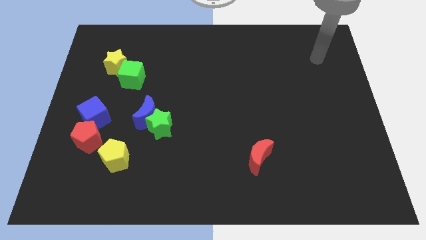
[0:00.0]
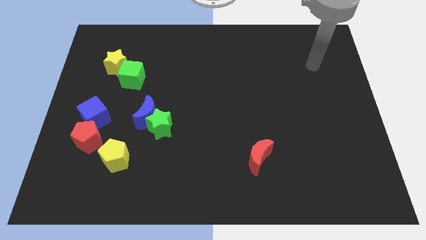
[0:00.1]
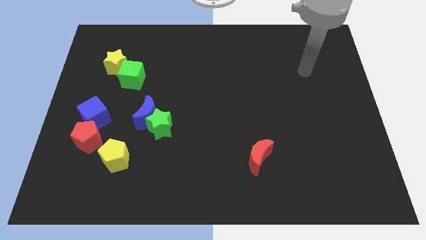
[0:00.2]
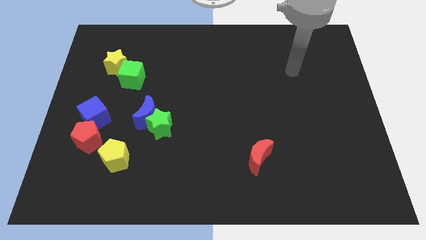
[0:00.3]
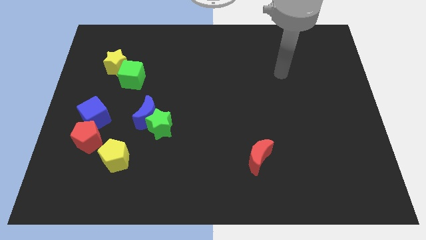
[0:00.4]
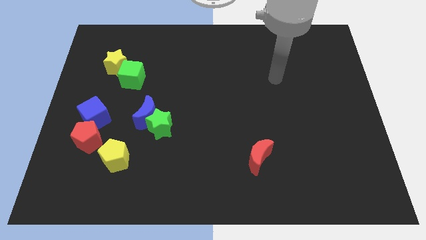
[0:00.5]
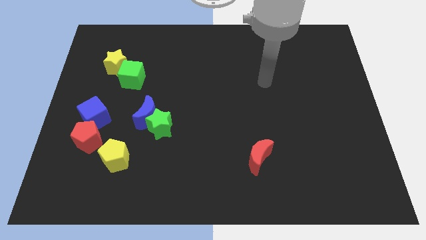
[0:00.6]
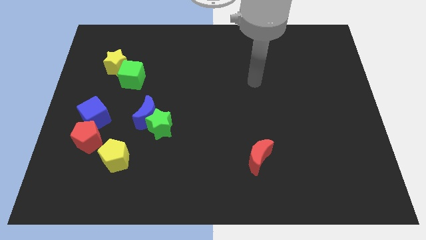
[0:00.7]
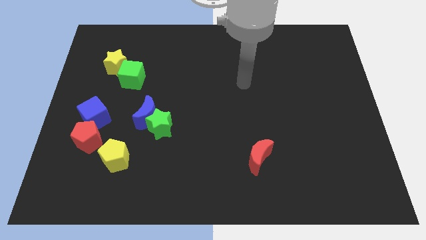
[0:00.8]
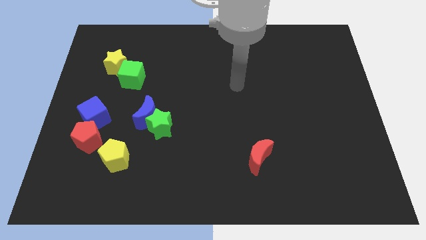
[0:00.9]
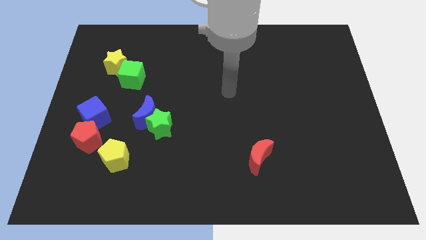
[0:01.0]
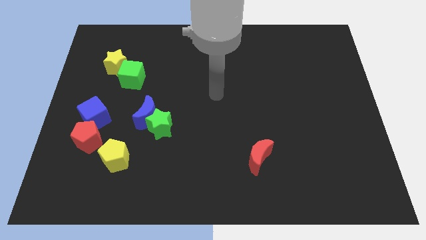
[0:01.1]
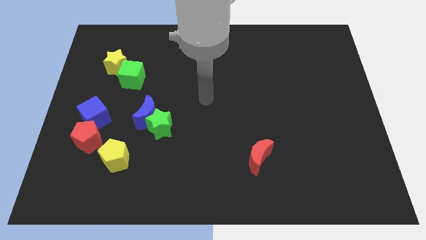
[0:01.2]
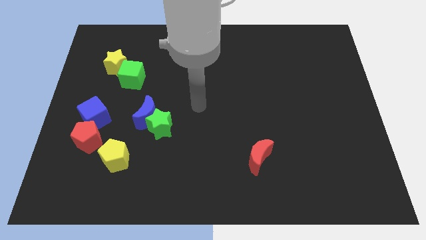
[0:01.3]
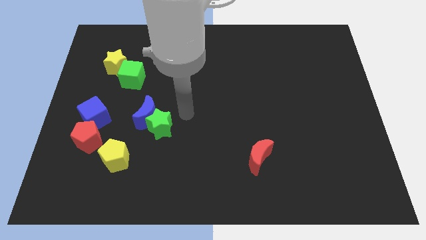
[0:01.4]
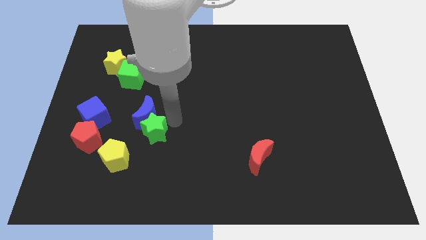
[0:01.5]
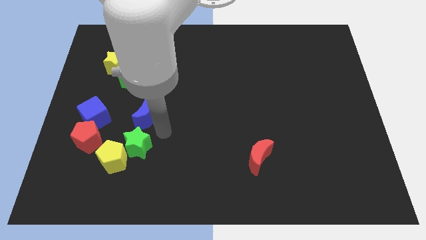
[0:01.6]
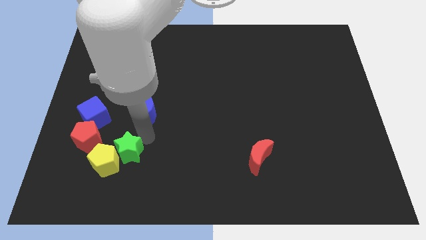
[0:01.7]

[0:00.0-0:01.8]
pull the blue moon apart from the green star

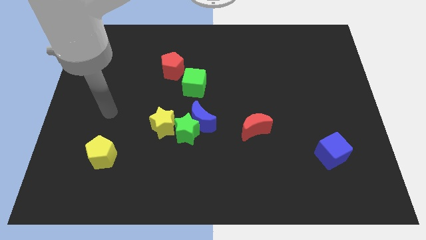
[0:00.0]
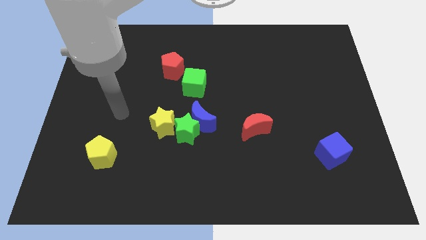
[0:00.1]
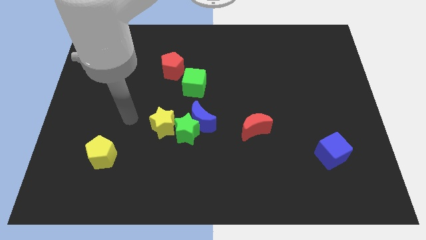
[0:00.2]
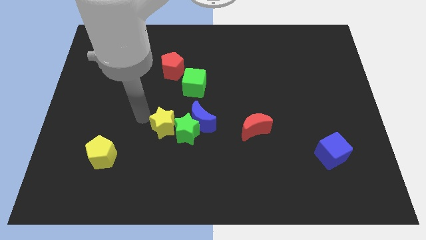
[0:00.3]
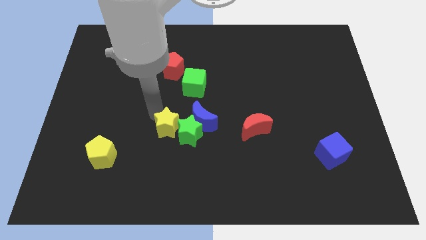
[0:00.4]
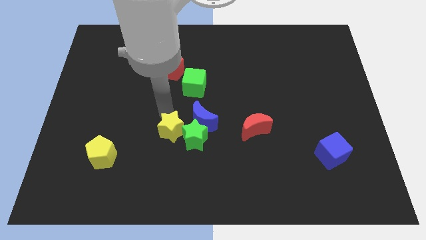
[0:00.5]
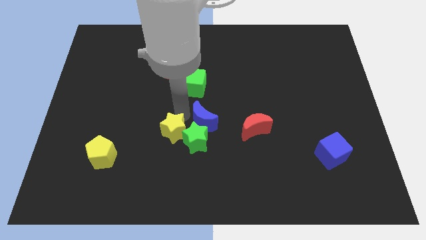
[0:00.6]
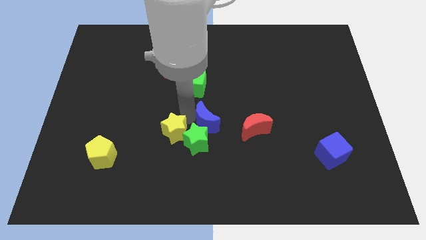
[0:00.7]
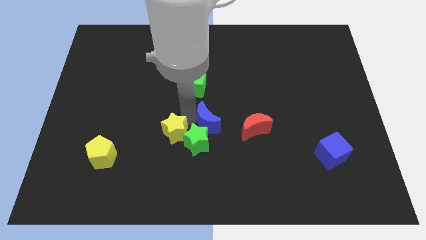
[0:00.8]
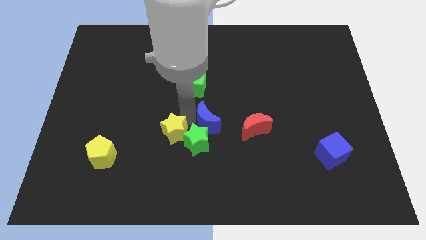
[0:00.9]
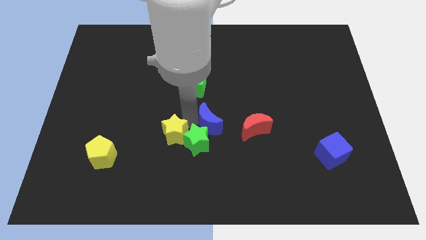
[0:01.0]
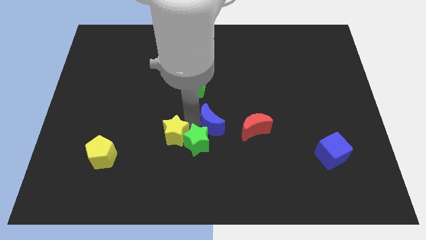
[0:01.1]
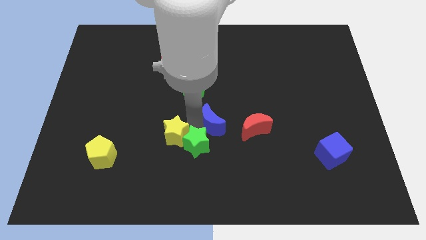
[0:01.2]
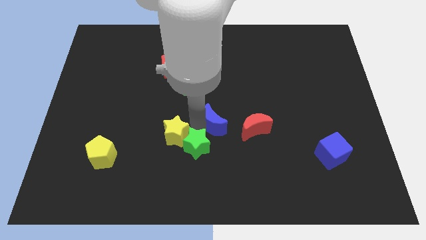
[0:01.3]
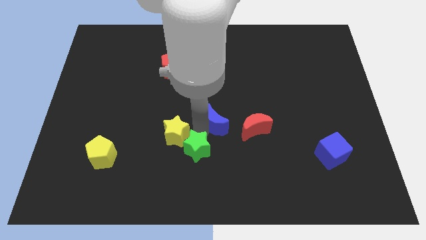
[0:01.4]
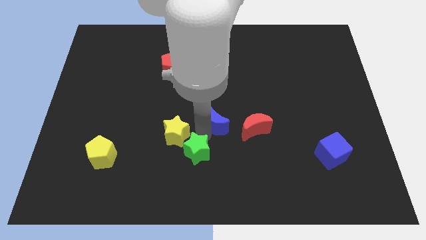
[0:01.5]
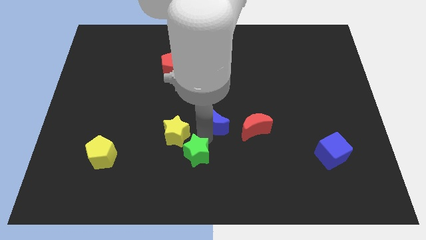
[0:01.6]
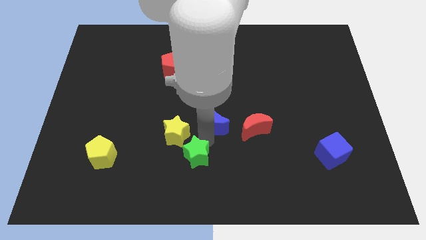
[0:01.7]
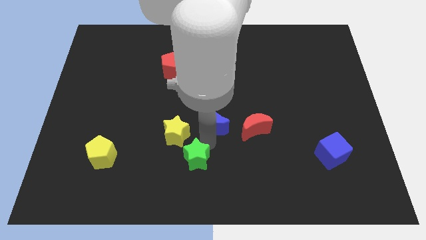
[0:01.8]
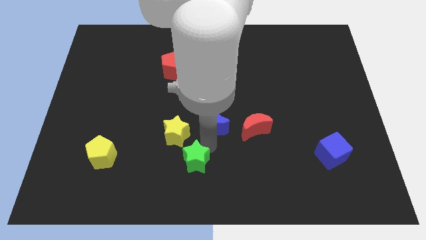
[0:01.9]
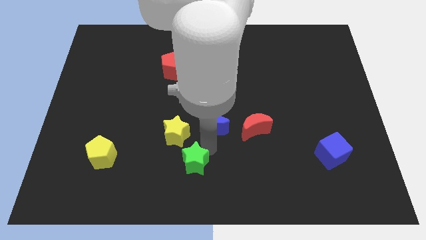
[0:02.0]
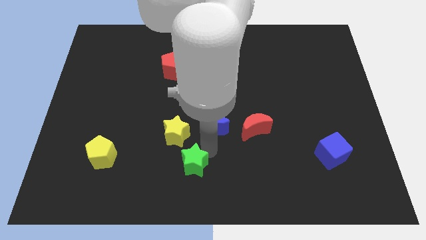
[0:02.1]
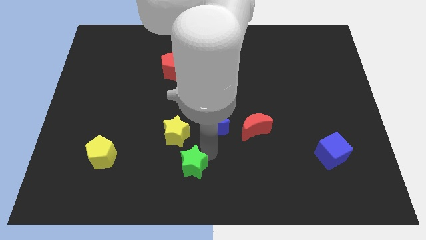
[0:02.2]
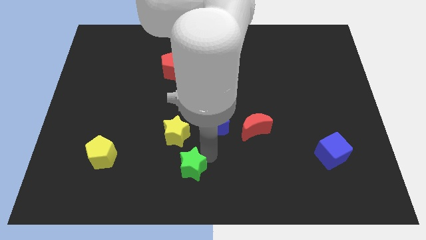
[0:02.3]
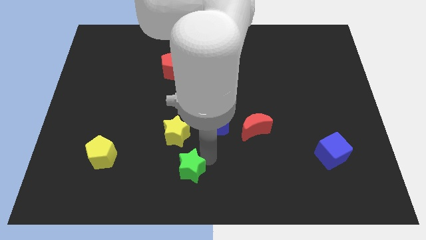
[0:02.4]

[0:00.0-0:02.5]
pull the green star apart from the blue moon and yellow star

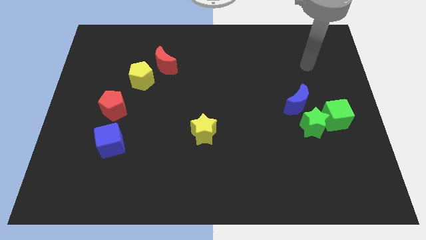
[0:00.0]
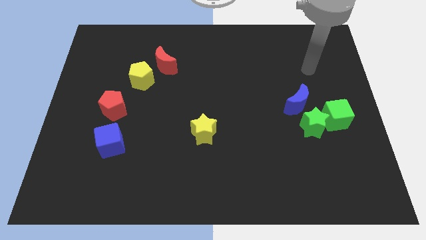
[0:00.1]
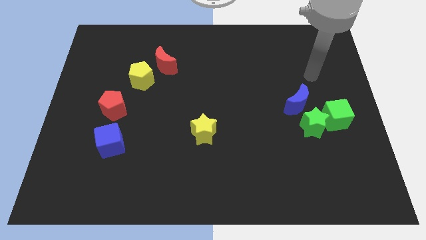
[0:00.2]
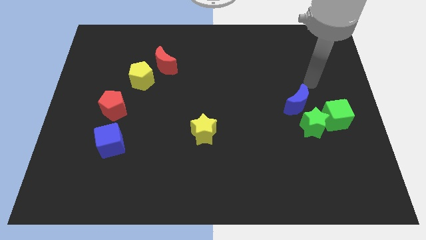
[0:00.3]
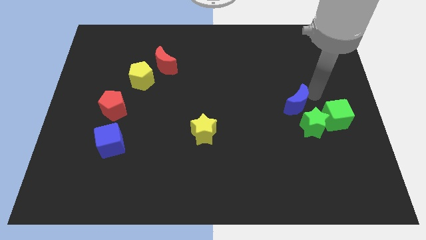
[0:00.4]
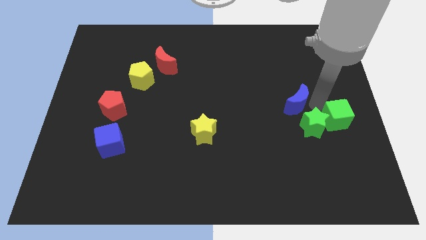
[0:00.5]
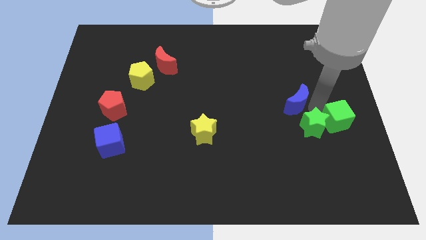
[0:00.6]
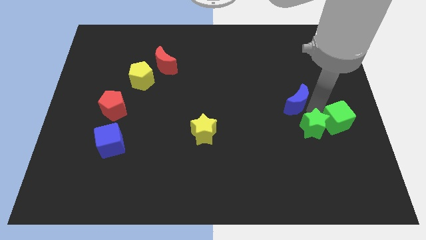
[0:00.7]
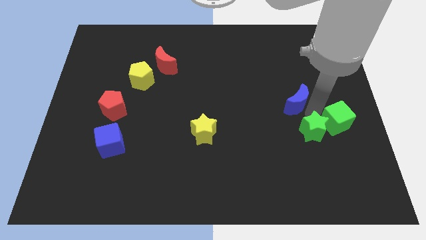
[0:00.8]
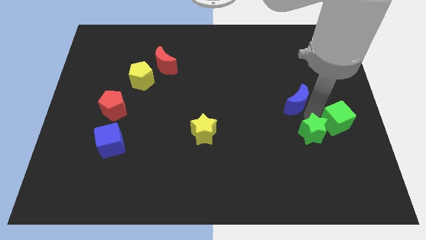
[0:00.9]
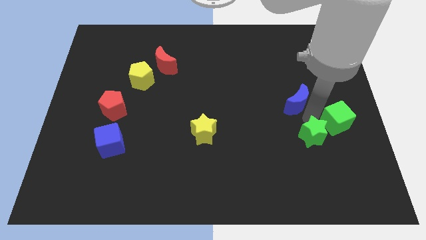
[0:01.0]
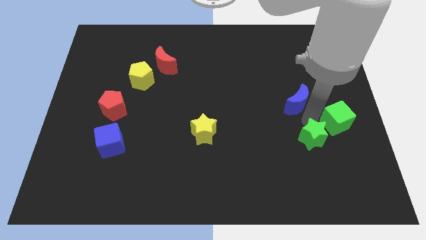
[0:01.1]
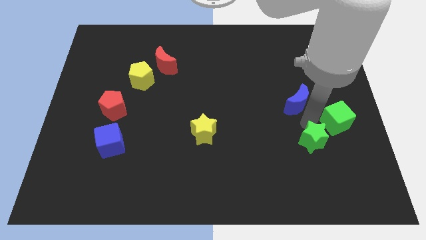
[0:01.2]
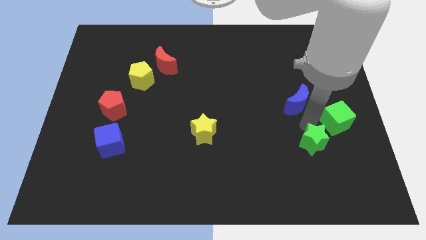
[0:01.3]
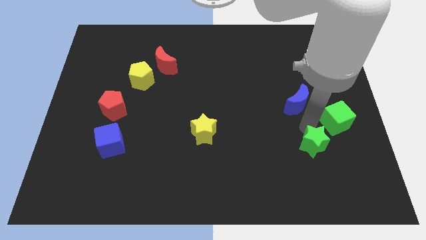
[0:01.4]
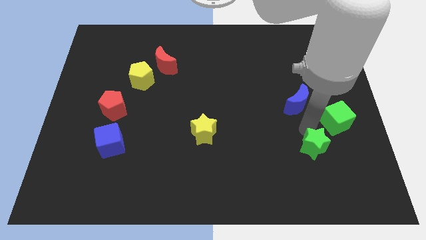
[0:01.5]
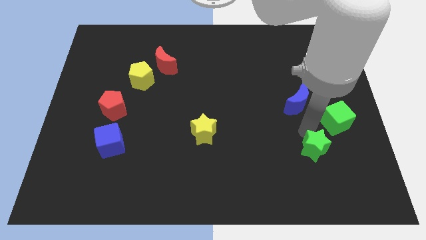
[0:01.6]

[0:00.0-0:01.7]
separate the green star from the green cube and blue moon

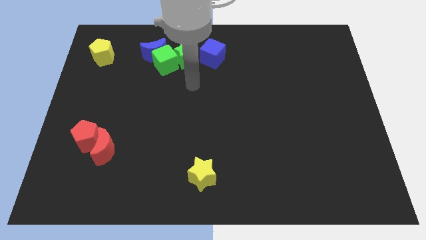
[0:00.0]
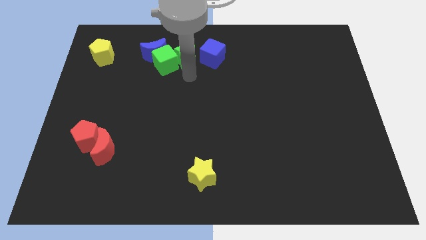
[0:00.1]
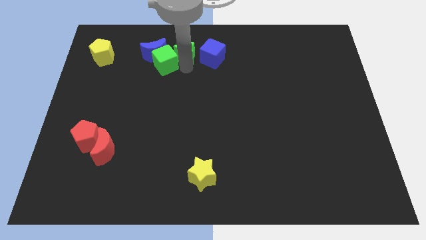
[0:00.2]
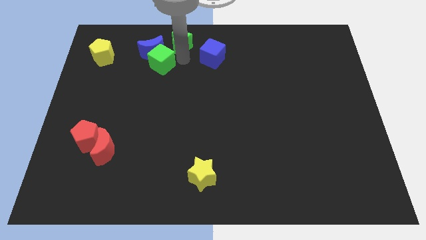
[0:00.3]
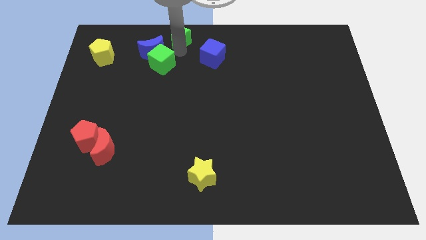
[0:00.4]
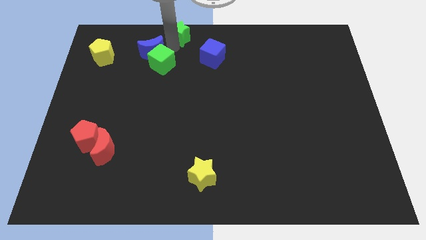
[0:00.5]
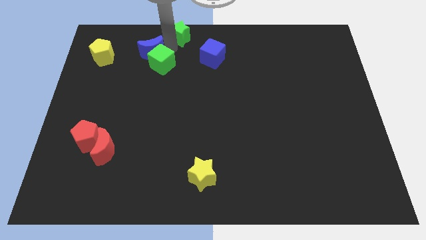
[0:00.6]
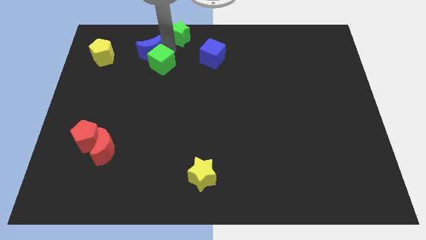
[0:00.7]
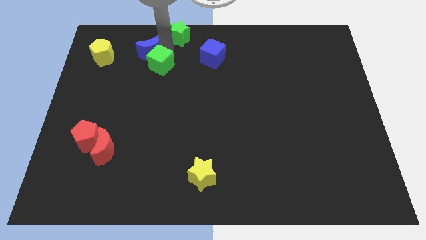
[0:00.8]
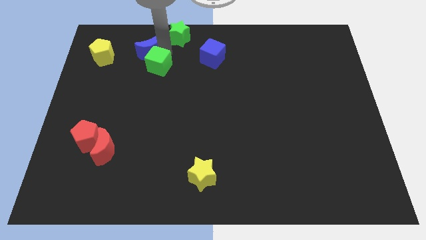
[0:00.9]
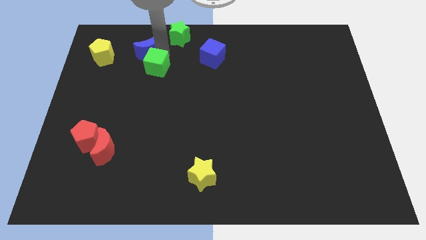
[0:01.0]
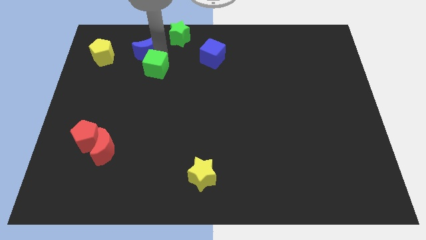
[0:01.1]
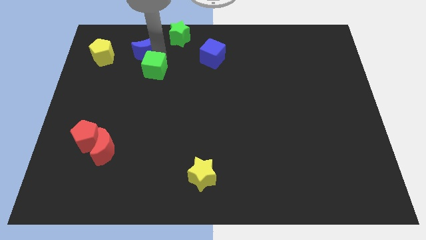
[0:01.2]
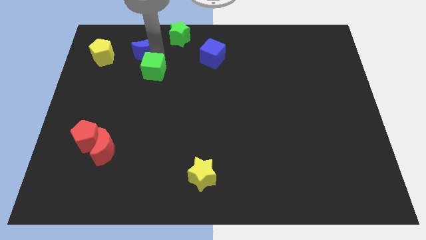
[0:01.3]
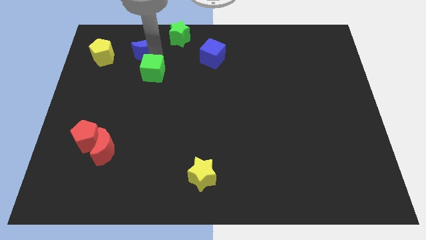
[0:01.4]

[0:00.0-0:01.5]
separate the green cube from the blue moon and green star

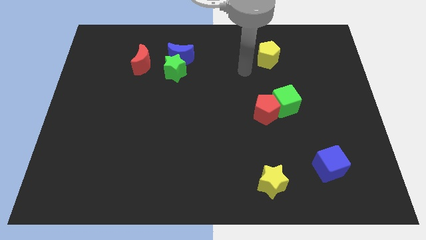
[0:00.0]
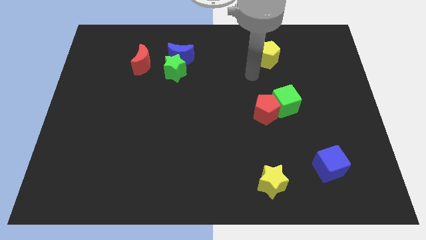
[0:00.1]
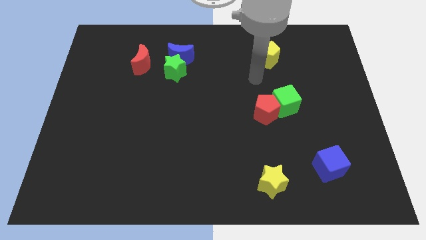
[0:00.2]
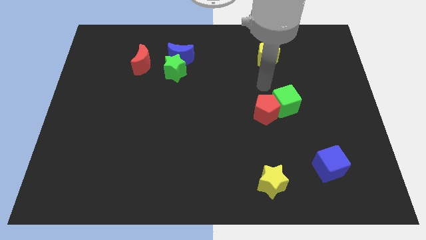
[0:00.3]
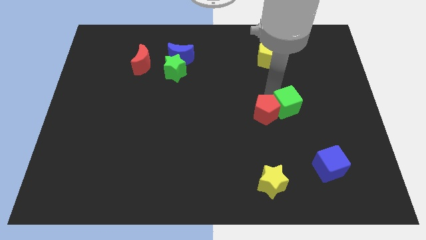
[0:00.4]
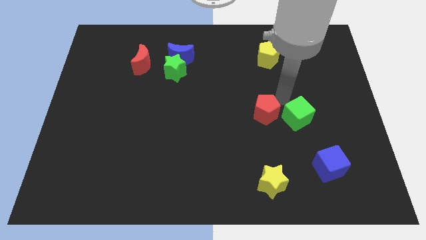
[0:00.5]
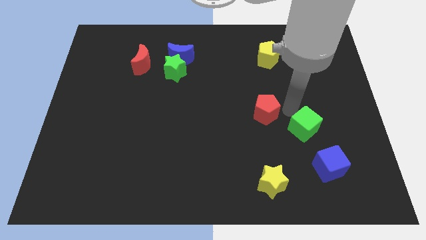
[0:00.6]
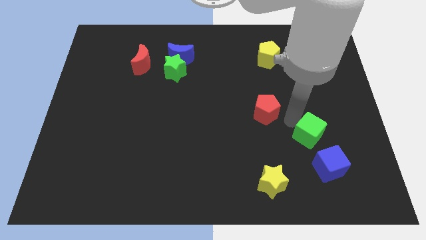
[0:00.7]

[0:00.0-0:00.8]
separate the red pentagon from the green cube

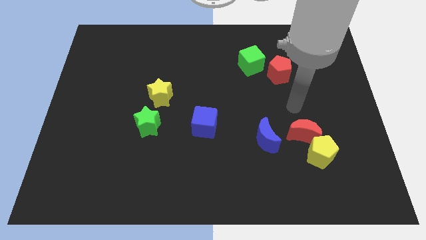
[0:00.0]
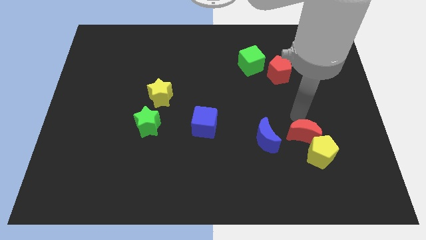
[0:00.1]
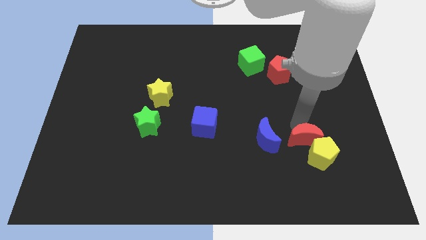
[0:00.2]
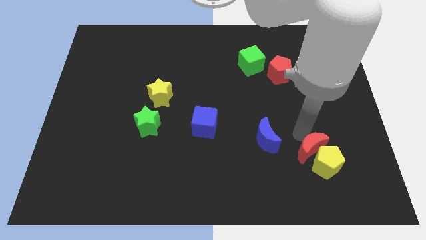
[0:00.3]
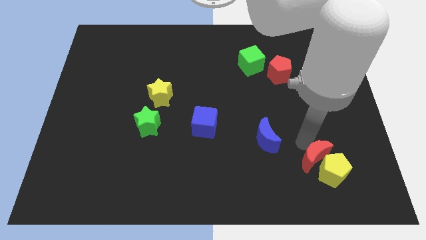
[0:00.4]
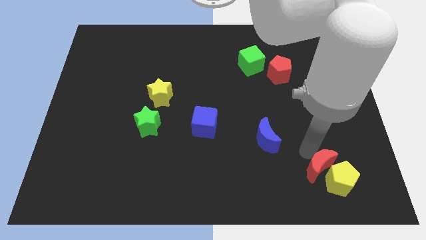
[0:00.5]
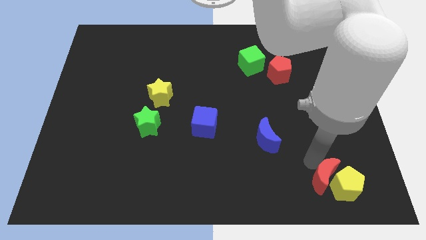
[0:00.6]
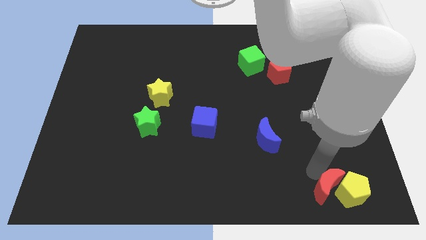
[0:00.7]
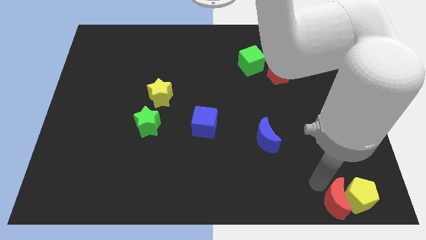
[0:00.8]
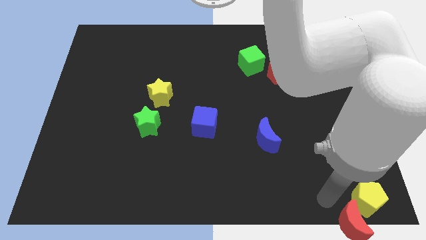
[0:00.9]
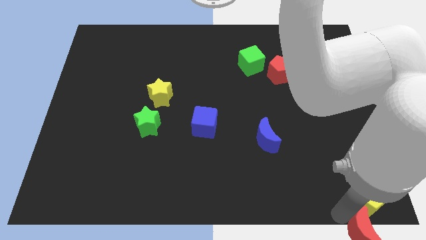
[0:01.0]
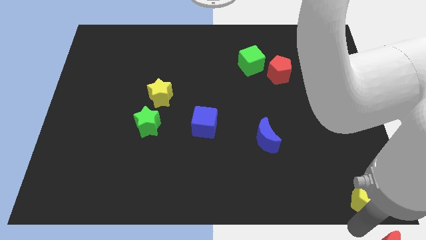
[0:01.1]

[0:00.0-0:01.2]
move the yellow pentagon away from the red moon
